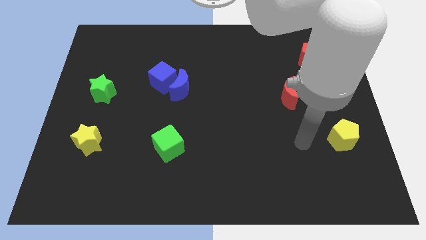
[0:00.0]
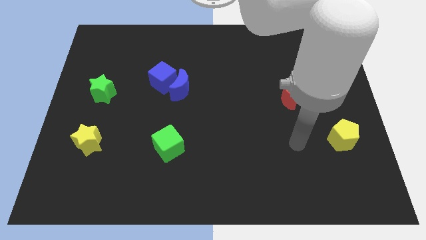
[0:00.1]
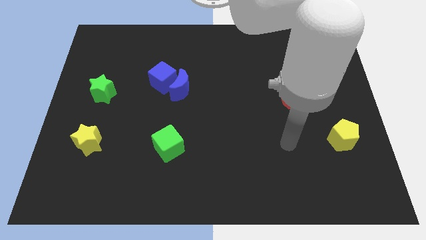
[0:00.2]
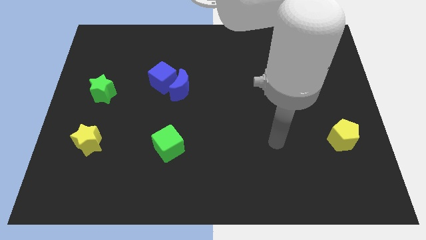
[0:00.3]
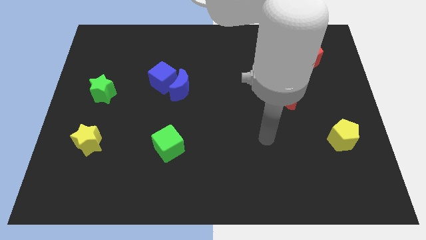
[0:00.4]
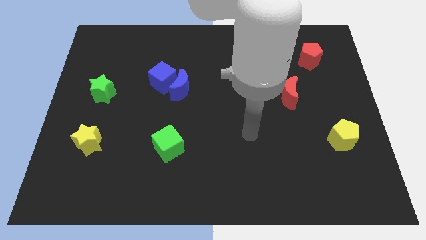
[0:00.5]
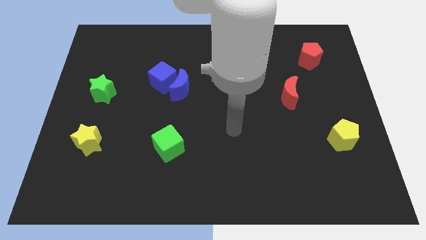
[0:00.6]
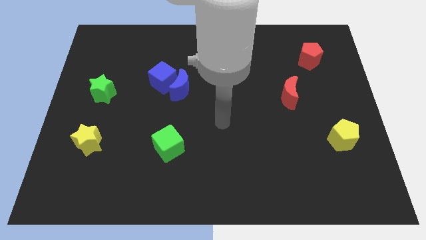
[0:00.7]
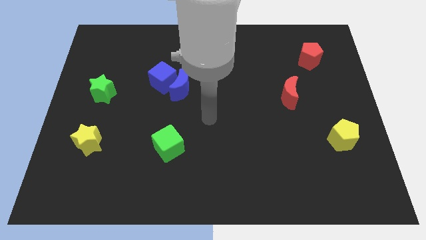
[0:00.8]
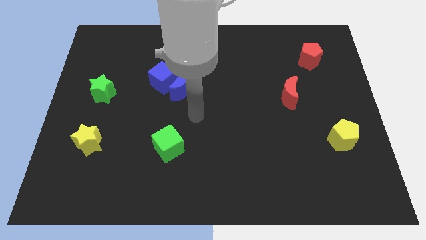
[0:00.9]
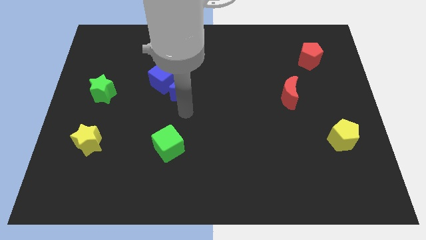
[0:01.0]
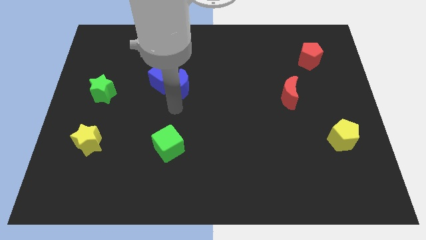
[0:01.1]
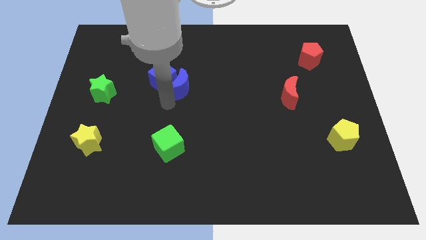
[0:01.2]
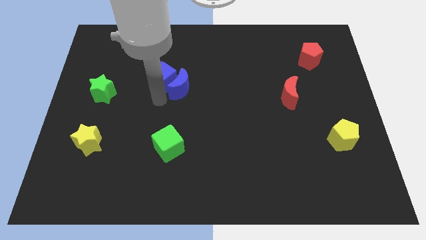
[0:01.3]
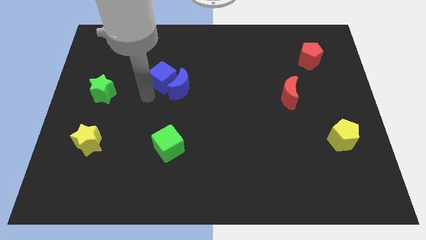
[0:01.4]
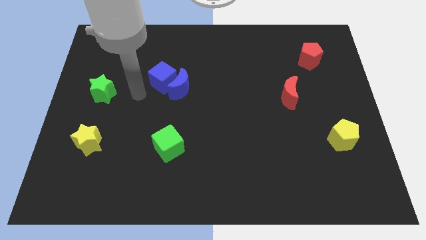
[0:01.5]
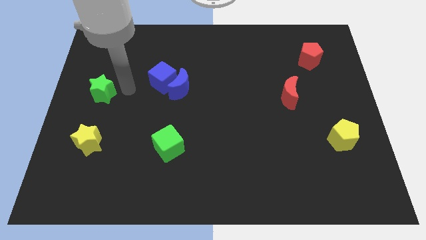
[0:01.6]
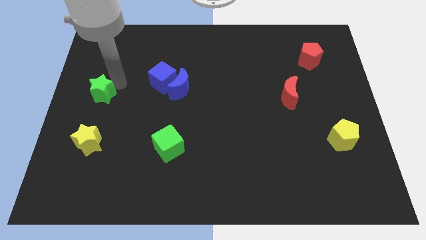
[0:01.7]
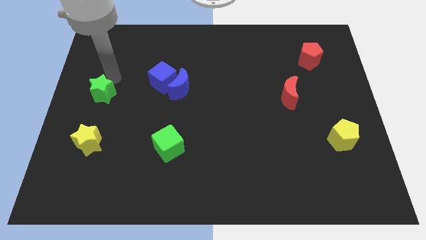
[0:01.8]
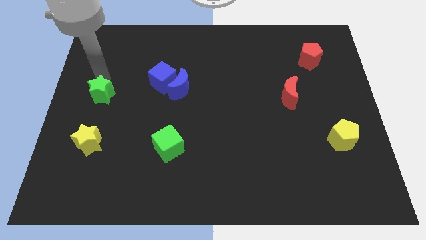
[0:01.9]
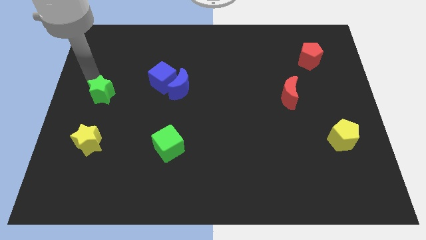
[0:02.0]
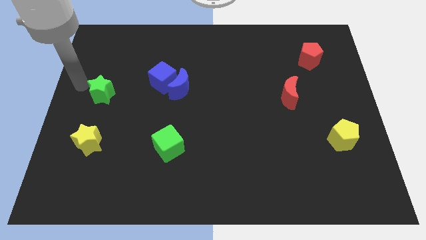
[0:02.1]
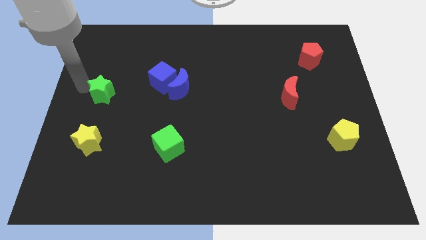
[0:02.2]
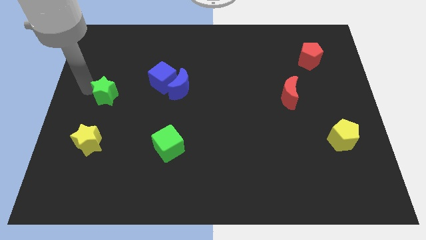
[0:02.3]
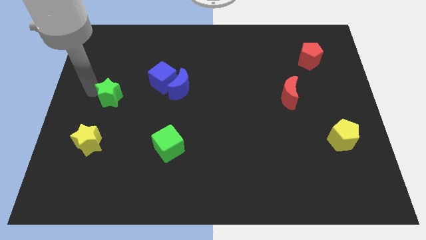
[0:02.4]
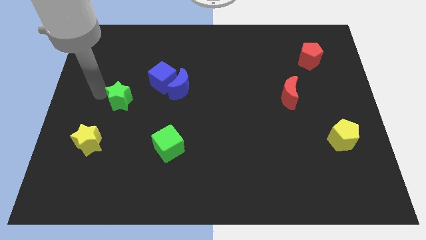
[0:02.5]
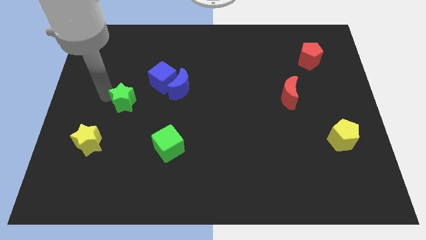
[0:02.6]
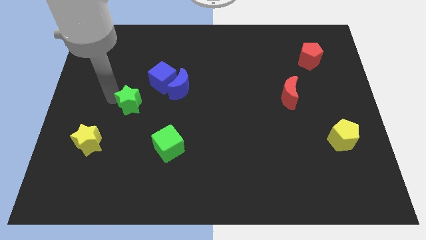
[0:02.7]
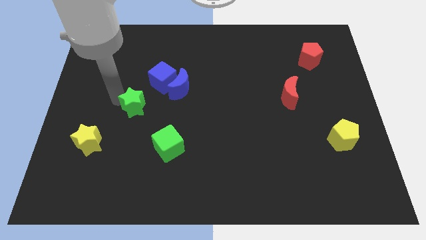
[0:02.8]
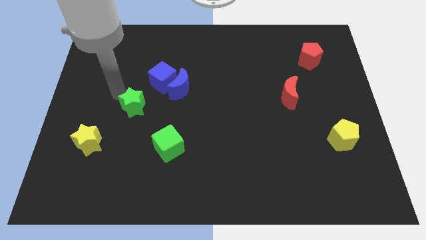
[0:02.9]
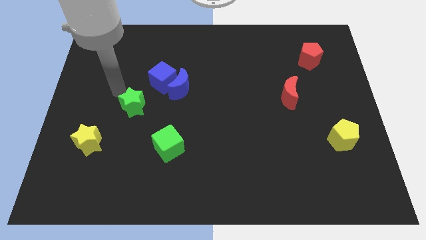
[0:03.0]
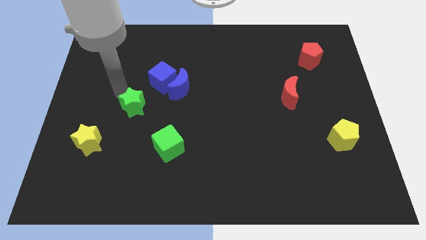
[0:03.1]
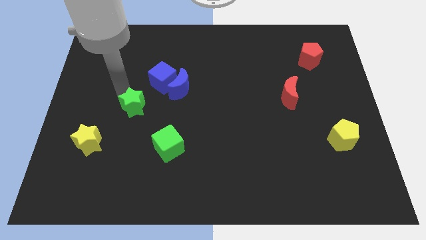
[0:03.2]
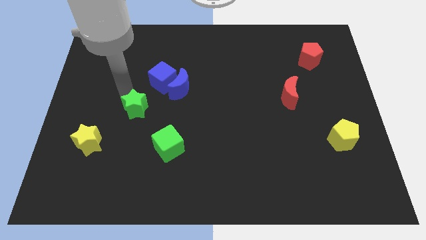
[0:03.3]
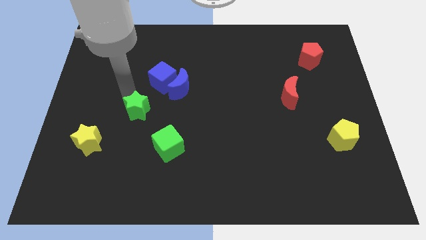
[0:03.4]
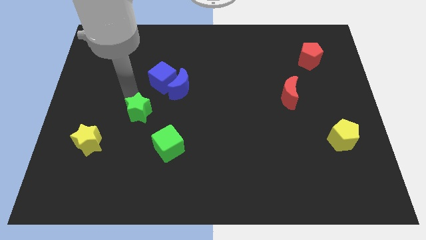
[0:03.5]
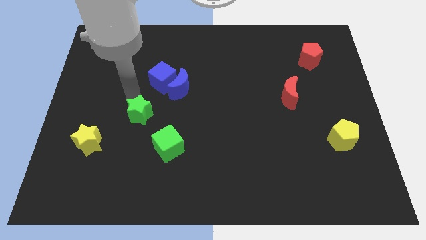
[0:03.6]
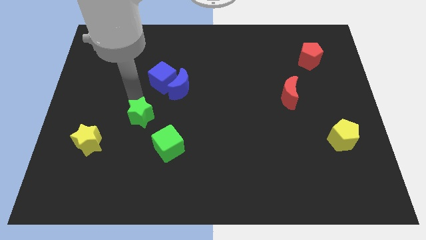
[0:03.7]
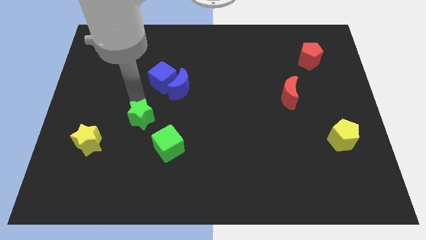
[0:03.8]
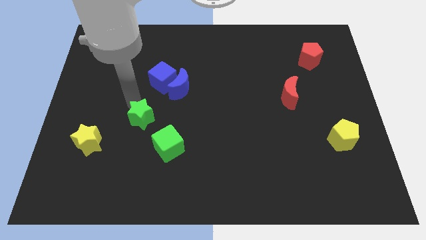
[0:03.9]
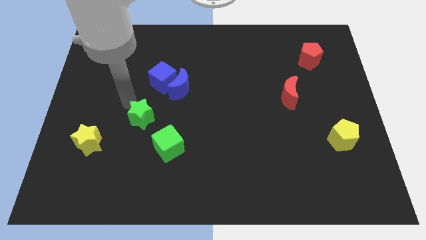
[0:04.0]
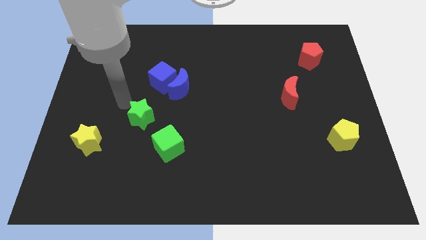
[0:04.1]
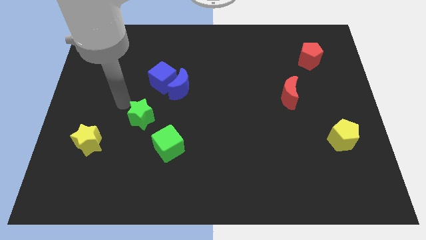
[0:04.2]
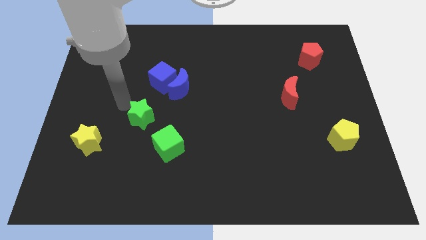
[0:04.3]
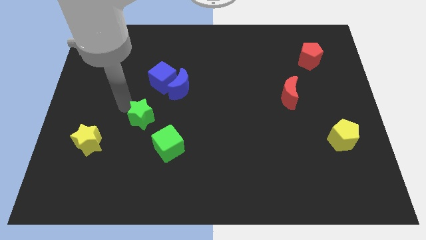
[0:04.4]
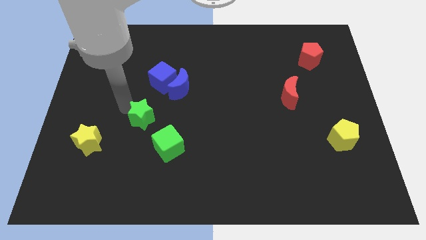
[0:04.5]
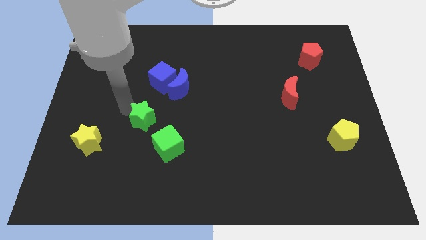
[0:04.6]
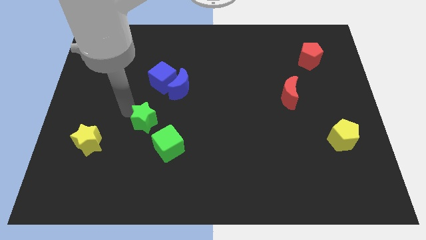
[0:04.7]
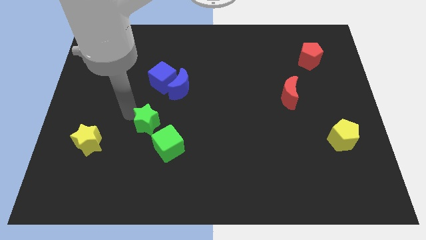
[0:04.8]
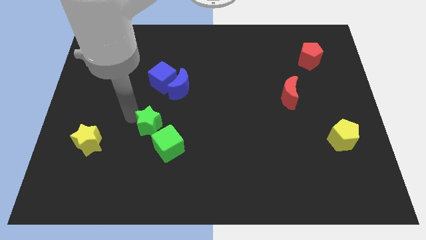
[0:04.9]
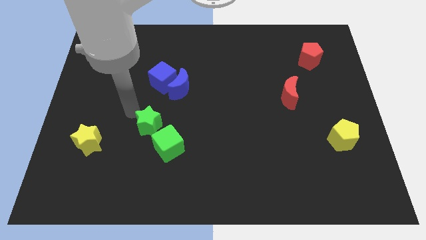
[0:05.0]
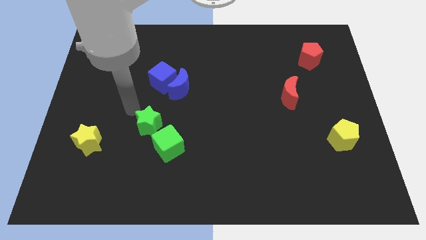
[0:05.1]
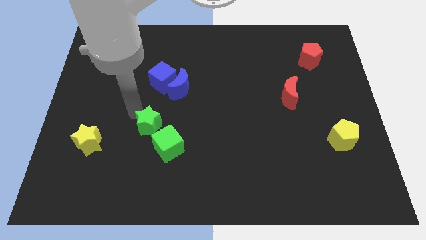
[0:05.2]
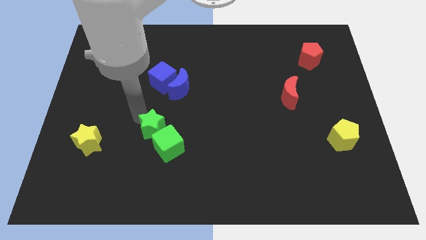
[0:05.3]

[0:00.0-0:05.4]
push the green star towards the green cube

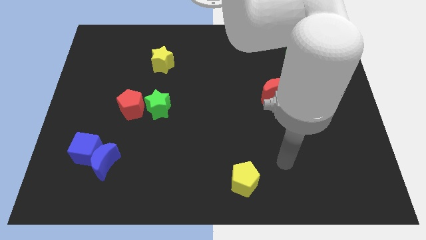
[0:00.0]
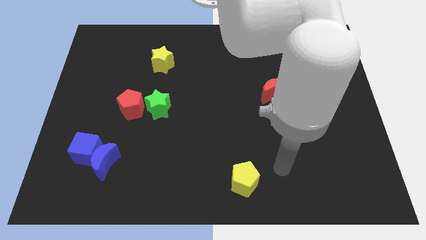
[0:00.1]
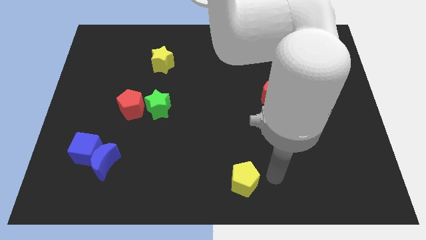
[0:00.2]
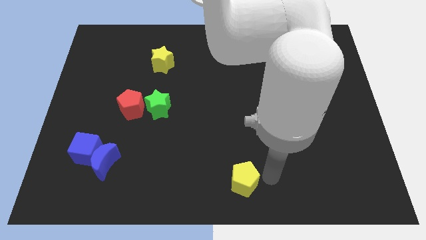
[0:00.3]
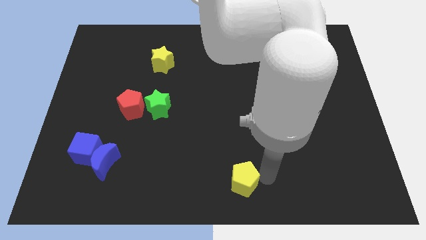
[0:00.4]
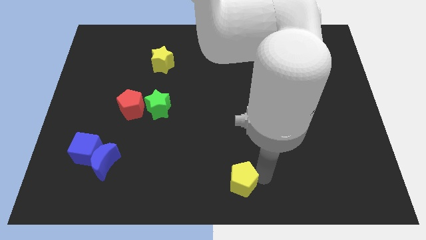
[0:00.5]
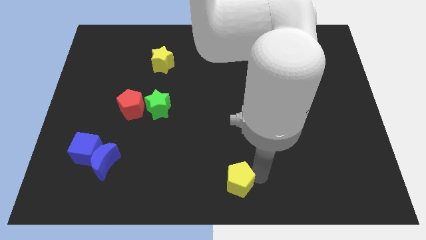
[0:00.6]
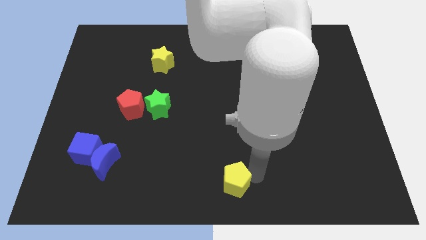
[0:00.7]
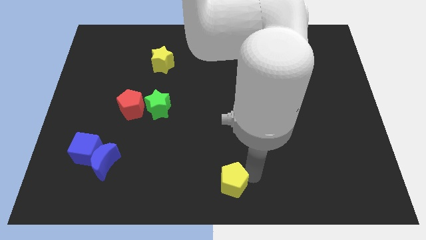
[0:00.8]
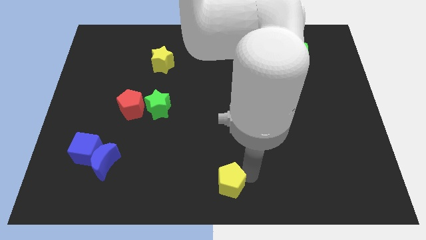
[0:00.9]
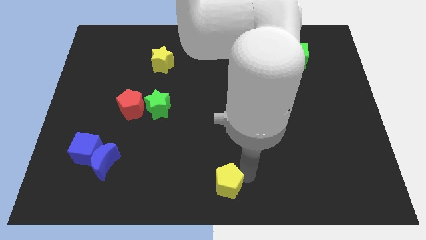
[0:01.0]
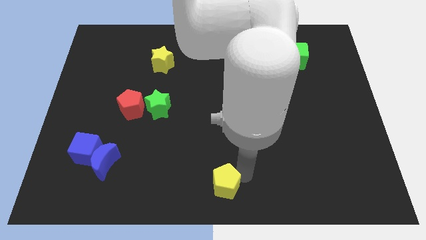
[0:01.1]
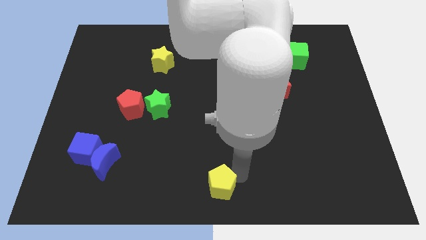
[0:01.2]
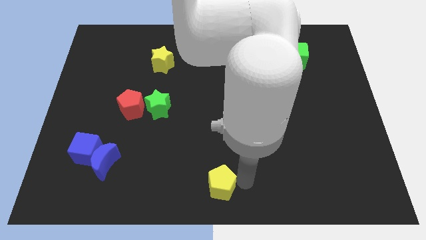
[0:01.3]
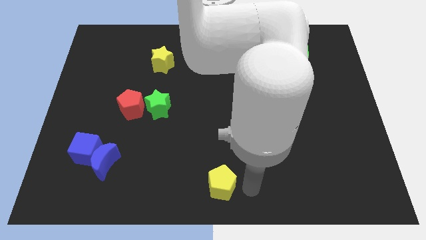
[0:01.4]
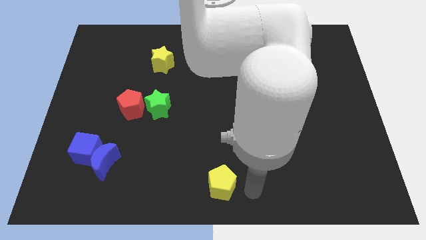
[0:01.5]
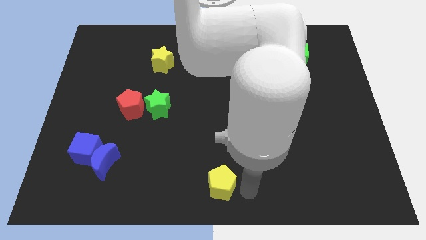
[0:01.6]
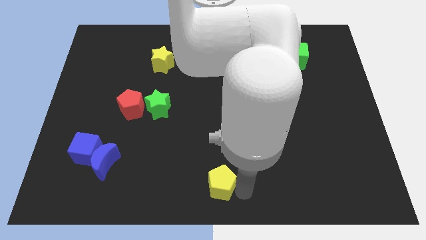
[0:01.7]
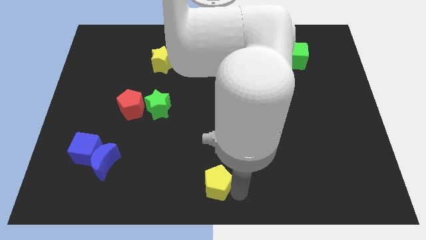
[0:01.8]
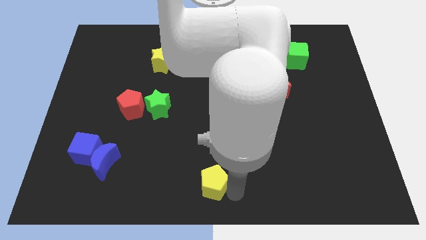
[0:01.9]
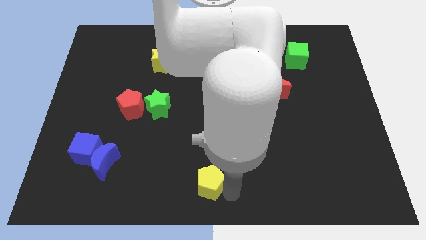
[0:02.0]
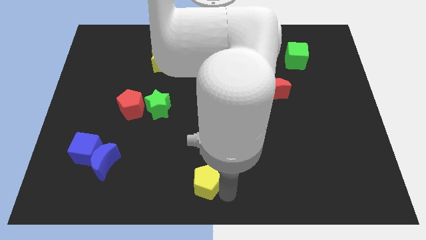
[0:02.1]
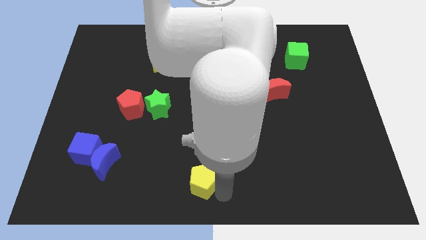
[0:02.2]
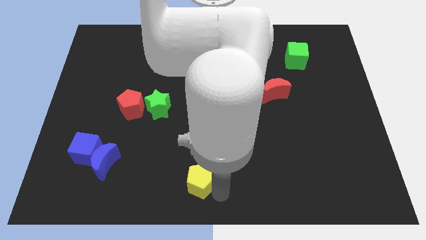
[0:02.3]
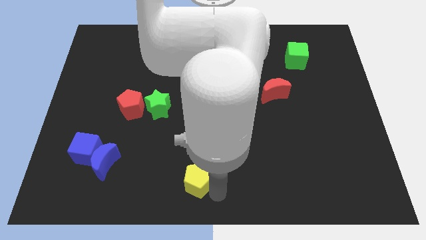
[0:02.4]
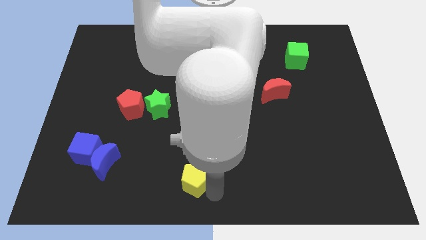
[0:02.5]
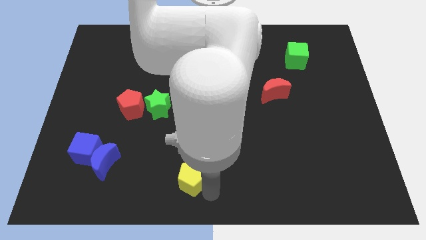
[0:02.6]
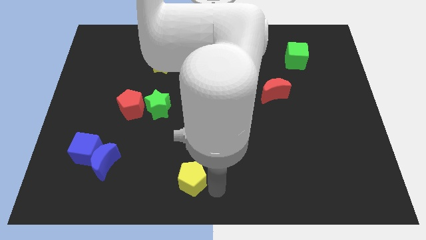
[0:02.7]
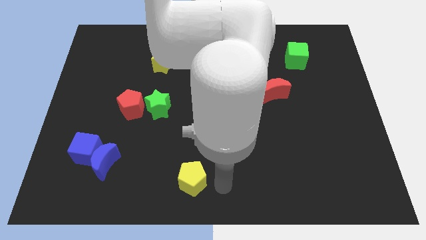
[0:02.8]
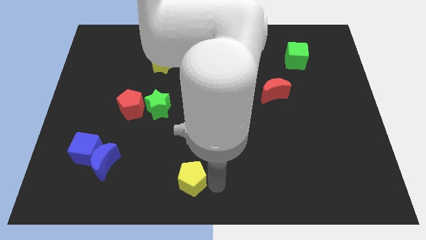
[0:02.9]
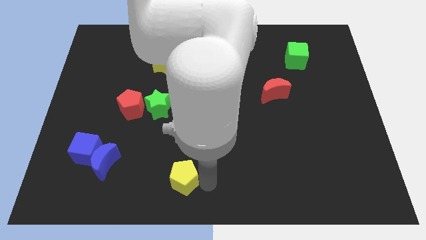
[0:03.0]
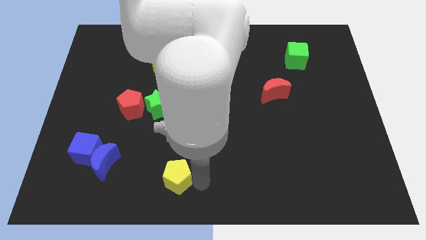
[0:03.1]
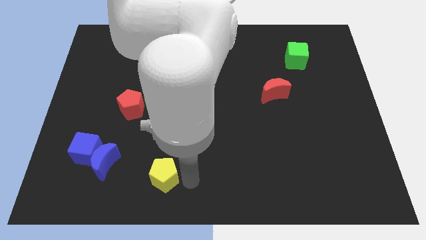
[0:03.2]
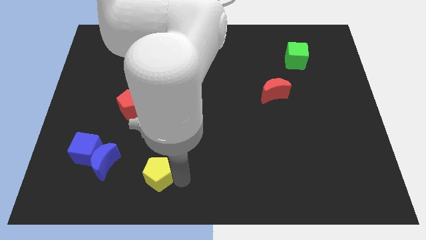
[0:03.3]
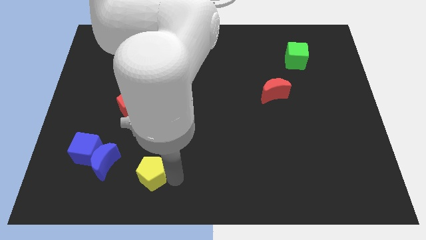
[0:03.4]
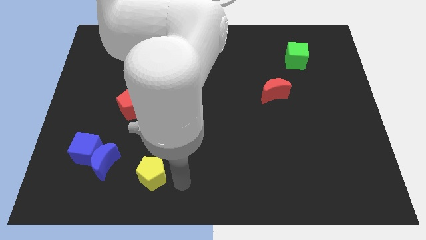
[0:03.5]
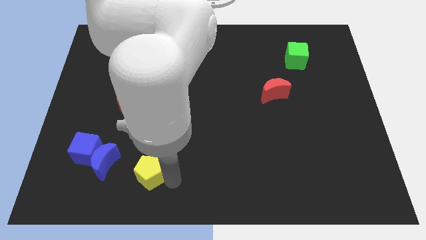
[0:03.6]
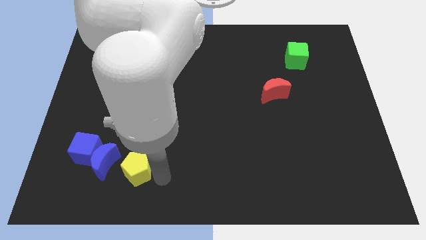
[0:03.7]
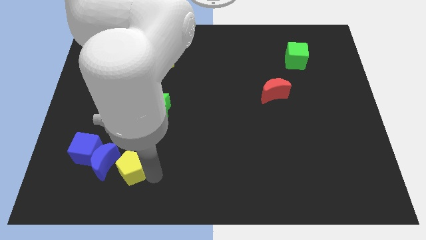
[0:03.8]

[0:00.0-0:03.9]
move the yellow pentagon to the blue moon
